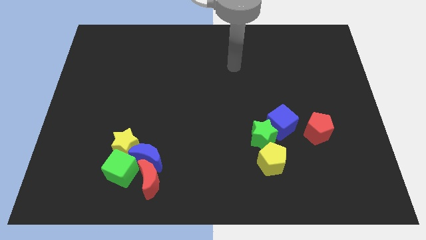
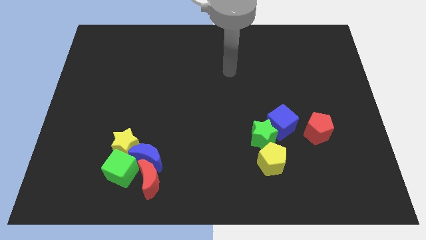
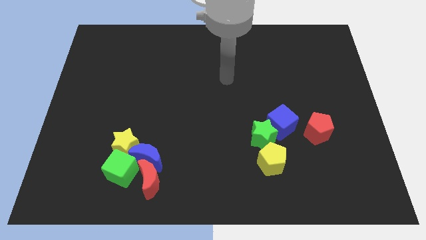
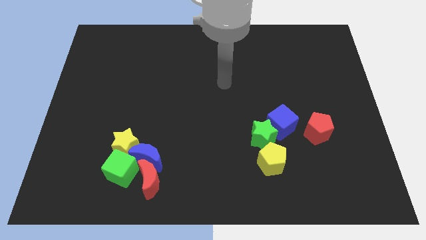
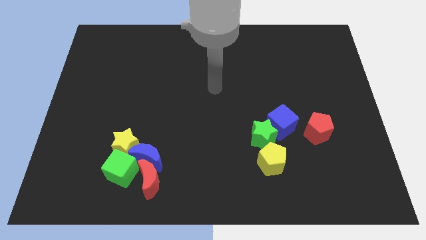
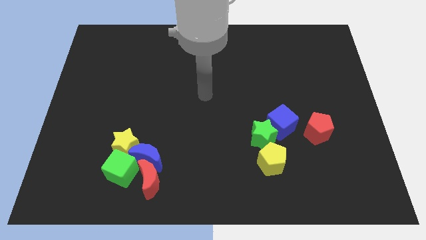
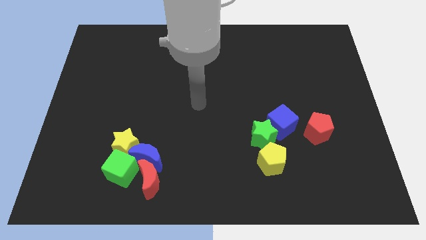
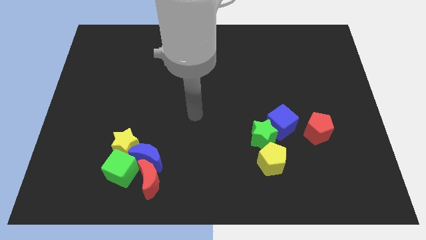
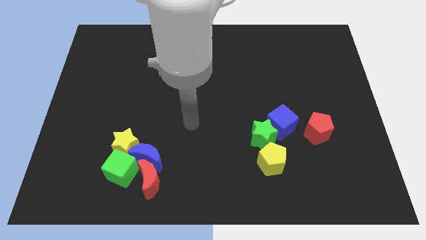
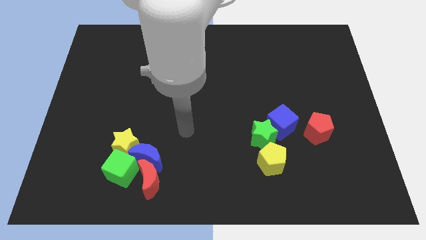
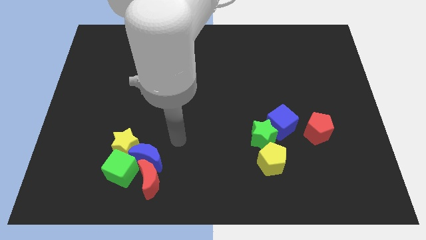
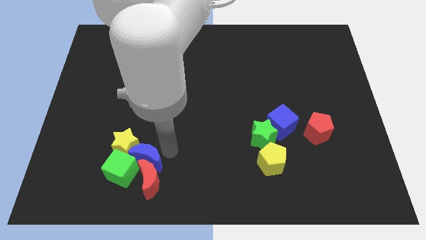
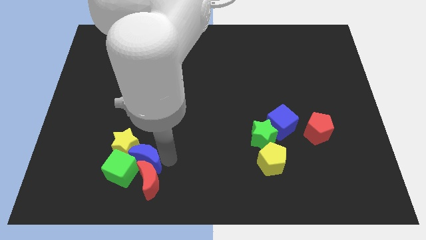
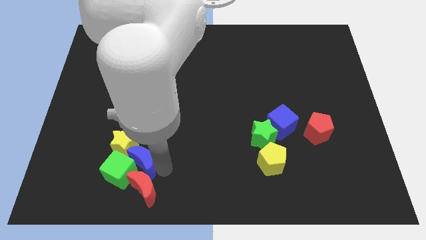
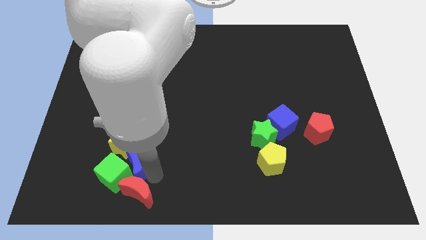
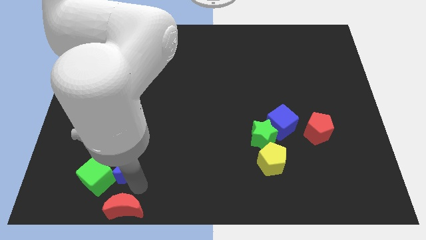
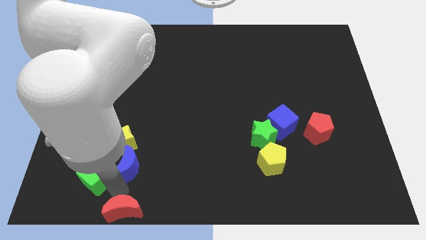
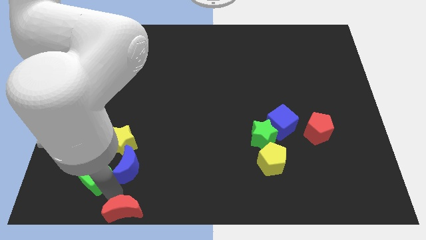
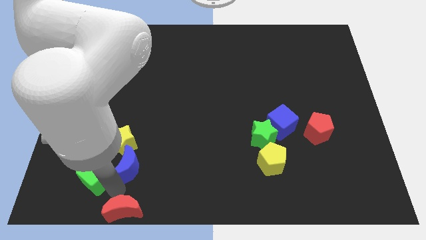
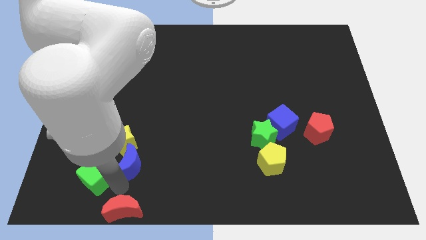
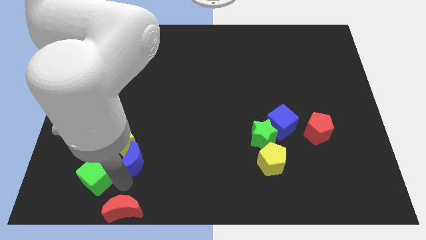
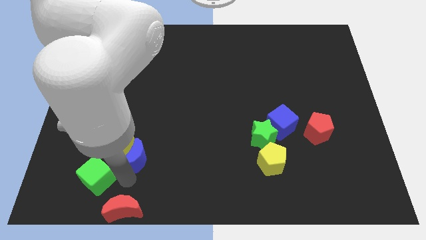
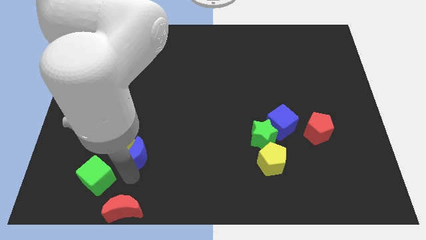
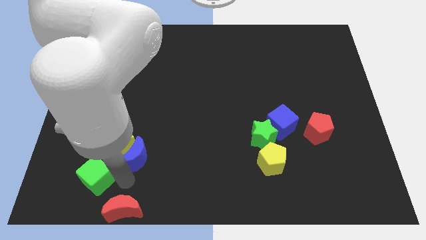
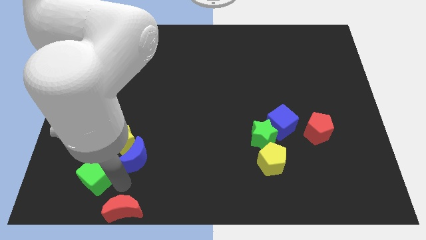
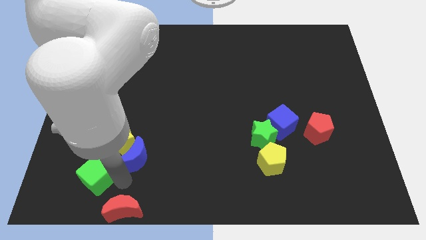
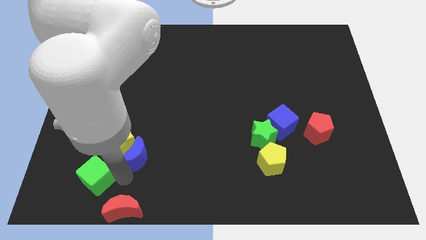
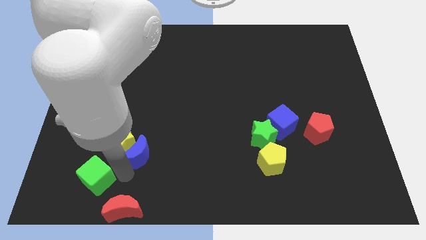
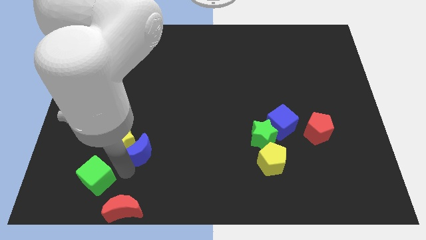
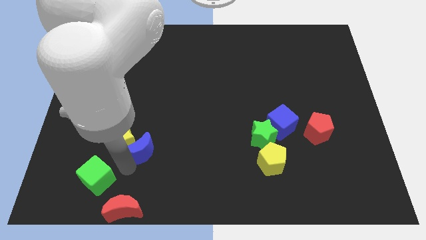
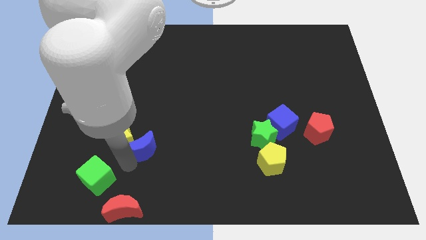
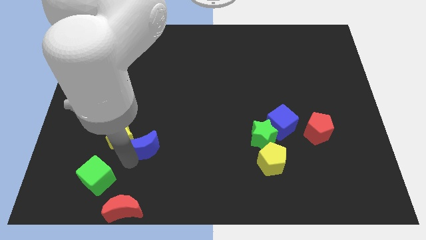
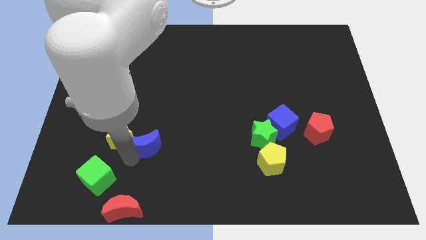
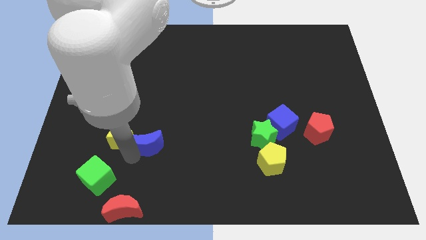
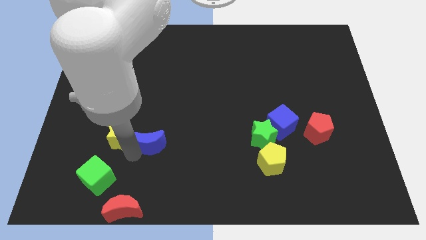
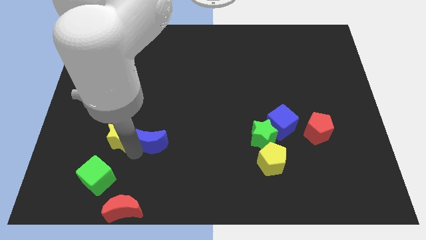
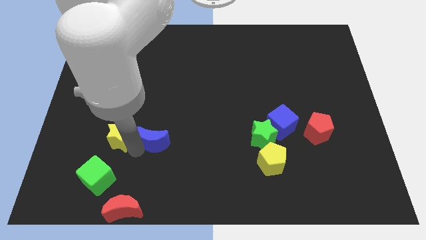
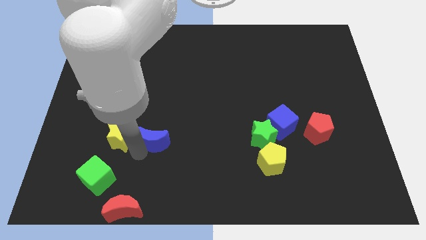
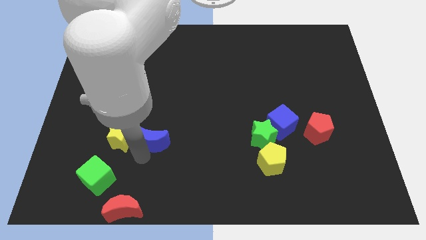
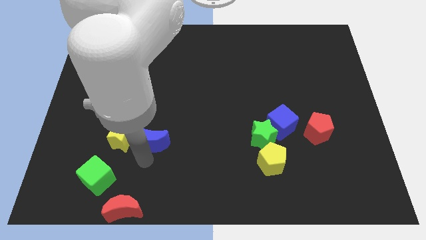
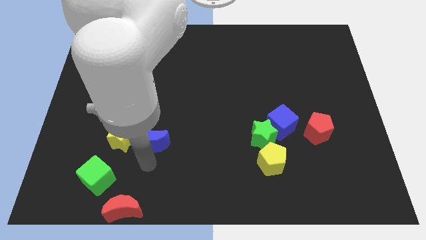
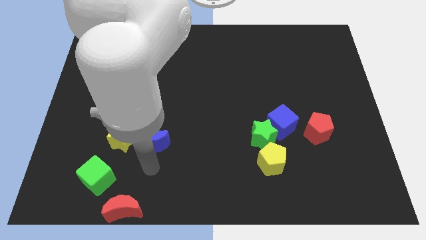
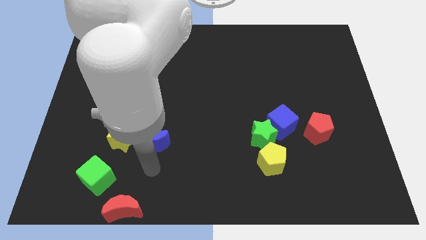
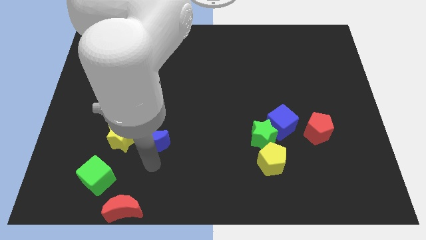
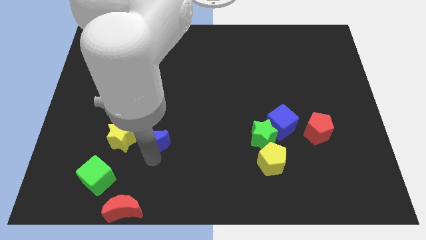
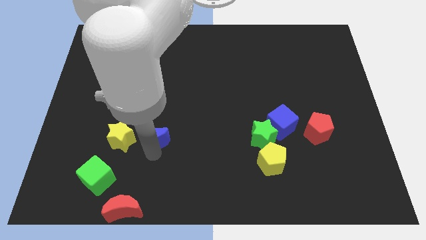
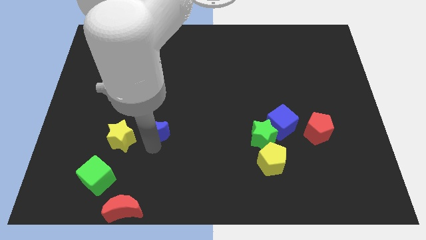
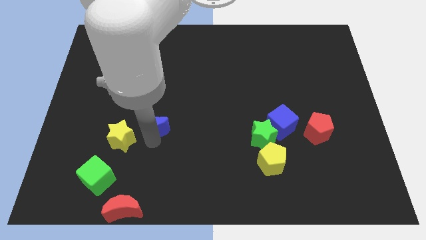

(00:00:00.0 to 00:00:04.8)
slightly move the blue moon up

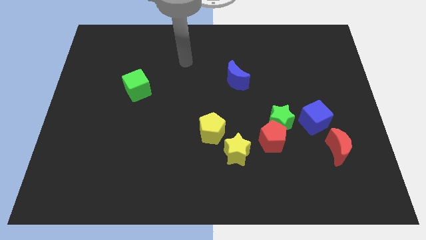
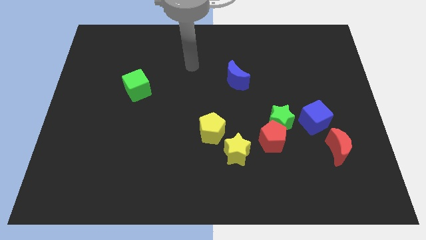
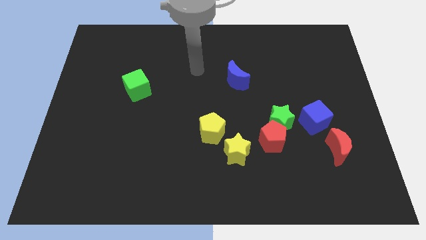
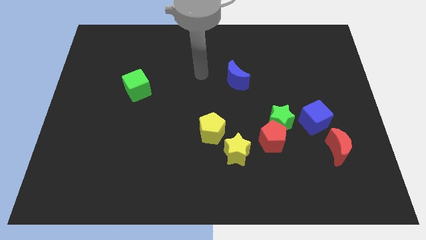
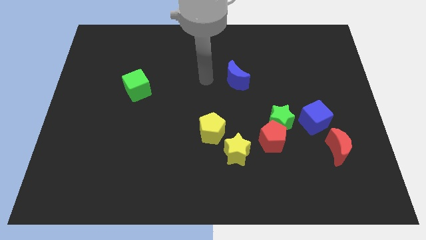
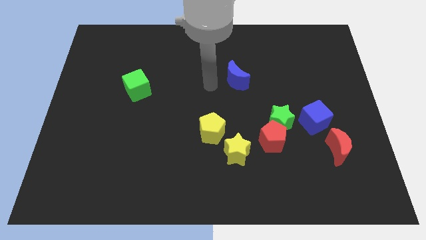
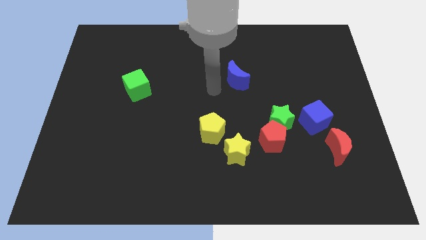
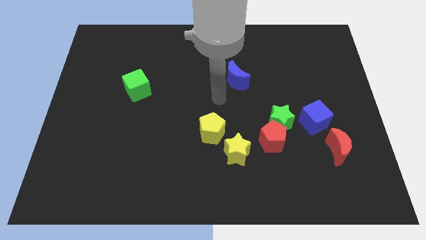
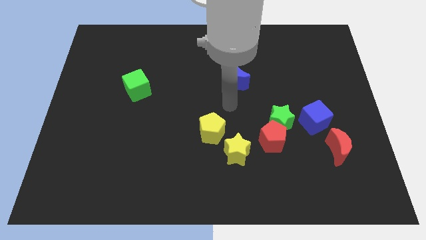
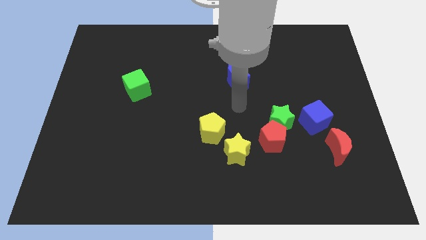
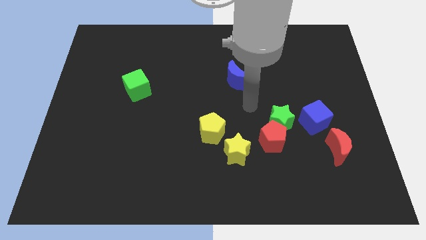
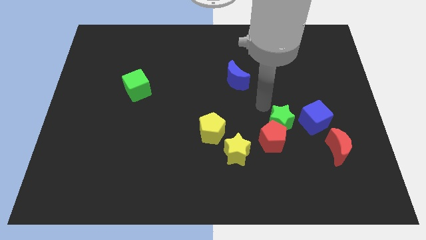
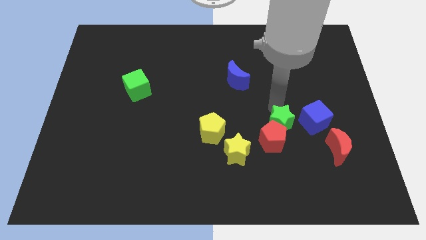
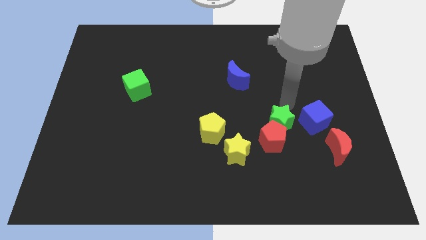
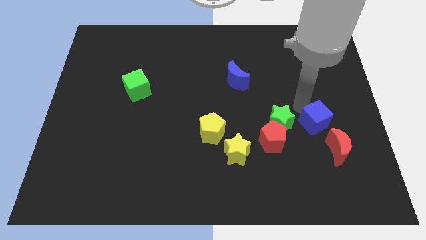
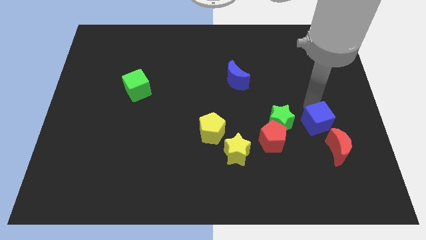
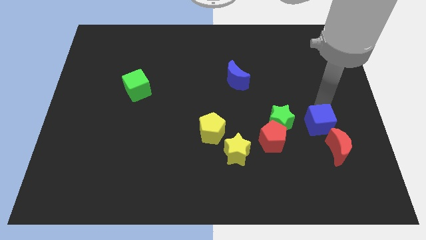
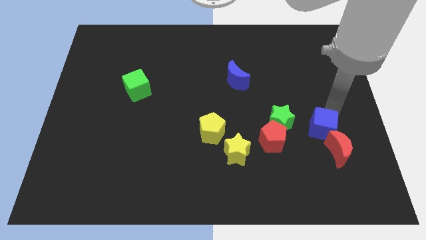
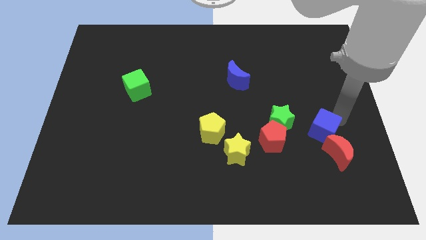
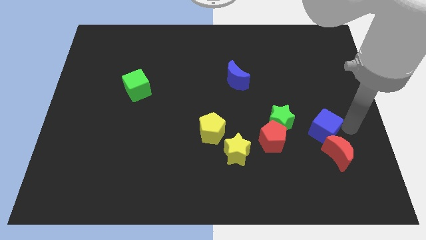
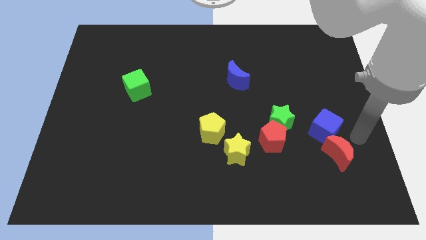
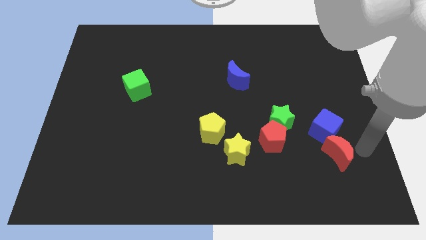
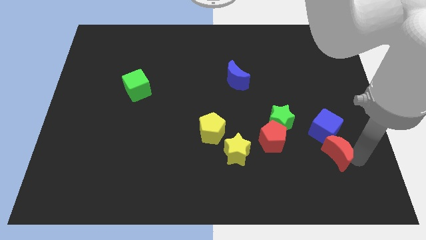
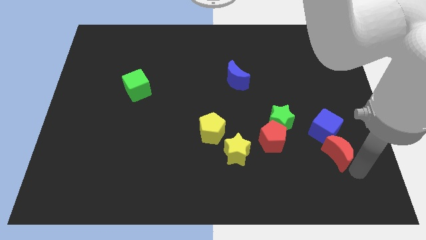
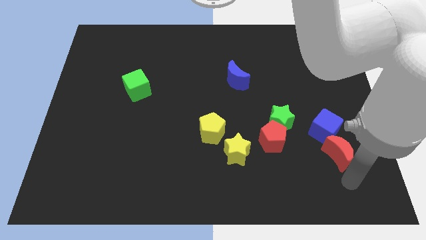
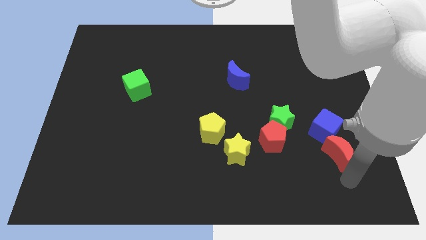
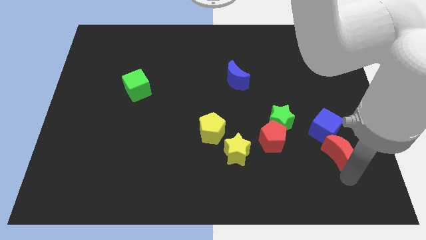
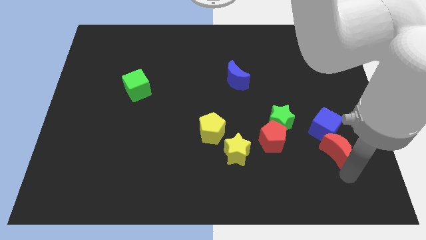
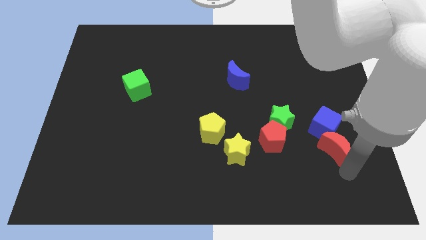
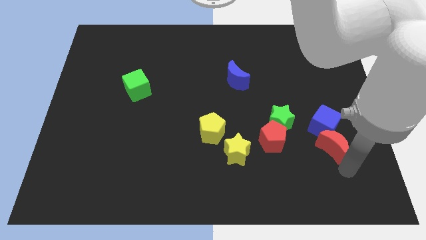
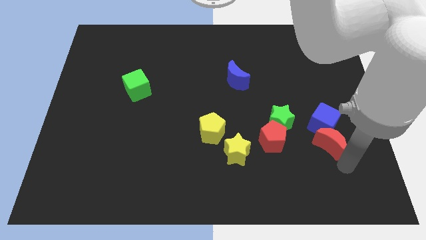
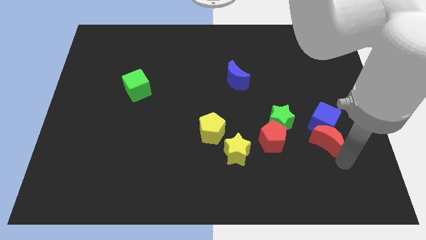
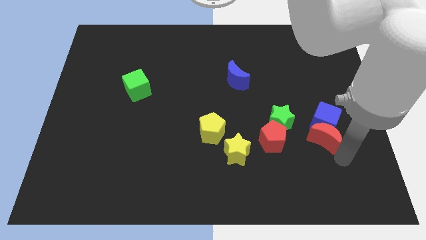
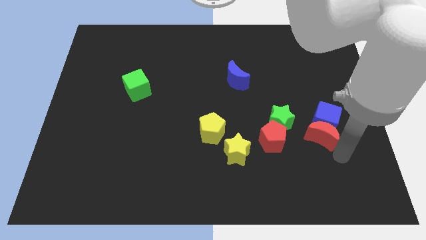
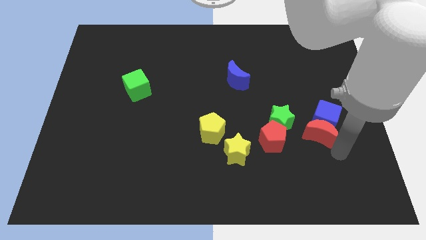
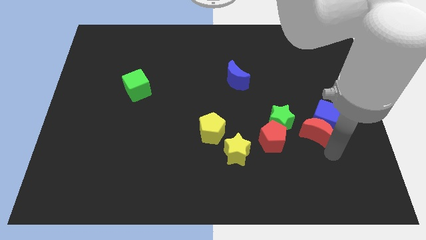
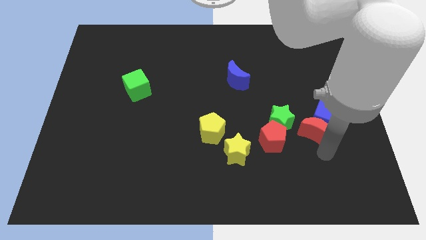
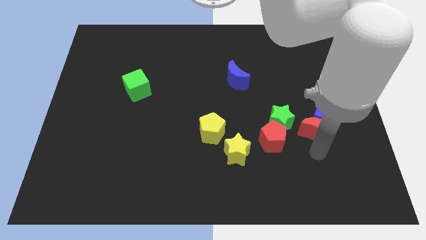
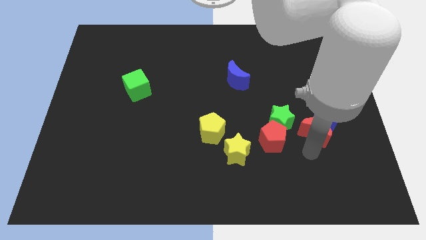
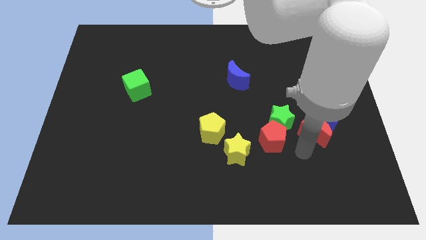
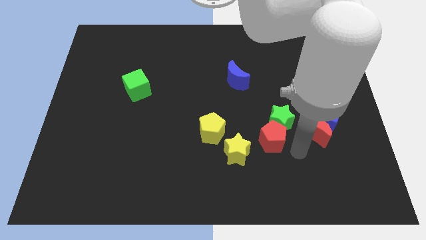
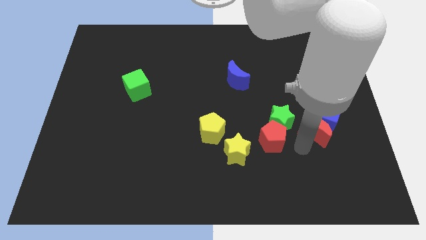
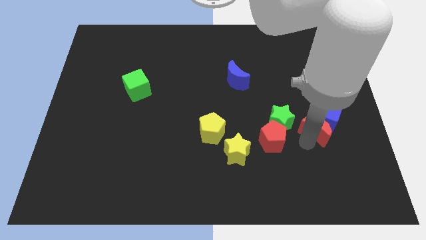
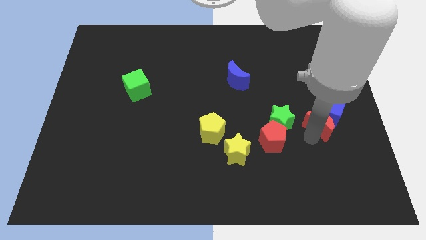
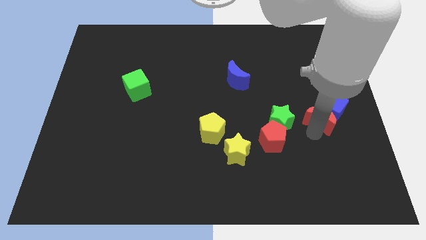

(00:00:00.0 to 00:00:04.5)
slide the red moon a little up and then left
